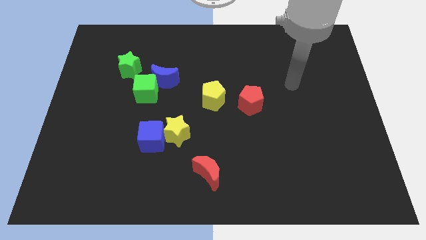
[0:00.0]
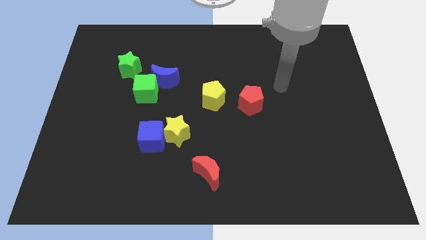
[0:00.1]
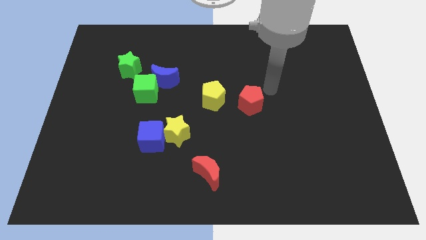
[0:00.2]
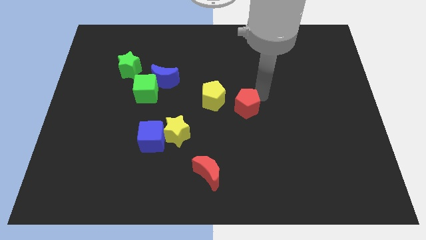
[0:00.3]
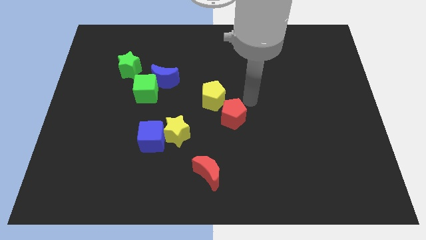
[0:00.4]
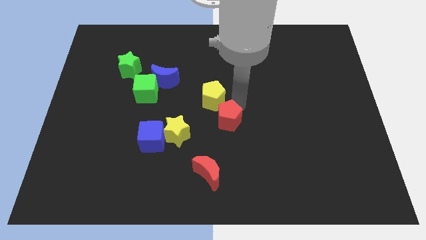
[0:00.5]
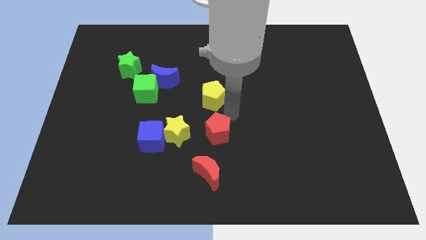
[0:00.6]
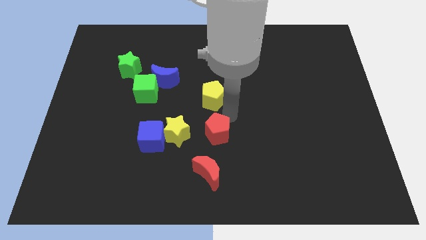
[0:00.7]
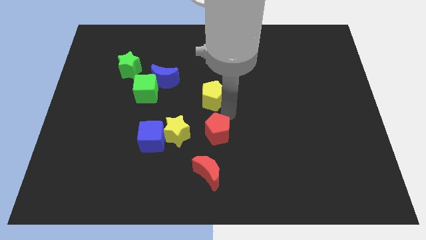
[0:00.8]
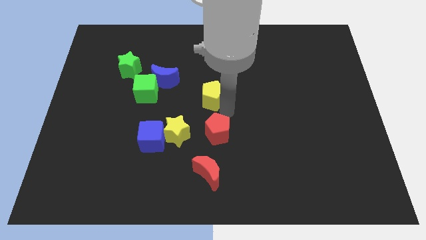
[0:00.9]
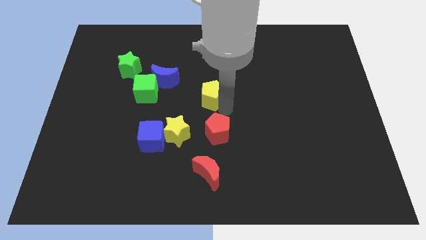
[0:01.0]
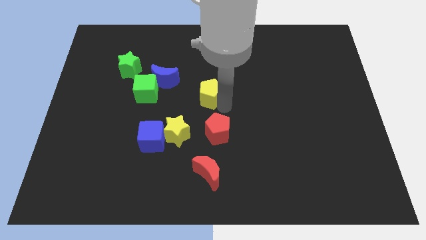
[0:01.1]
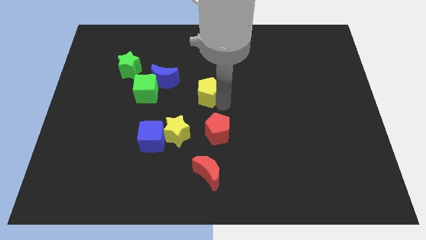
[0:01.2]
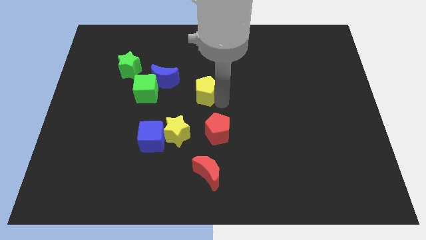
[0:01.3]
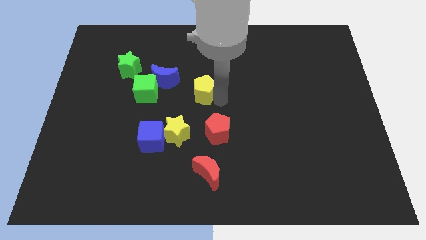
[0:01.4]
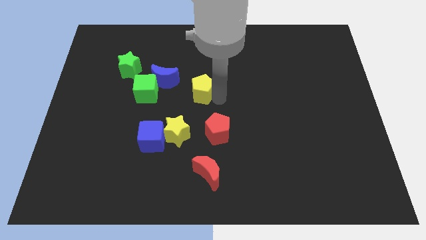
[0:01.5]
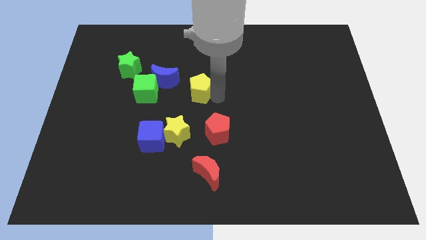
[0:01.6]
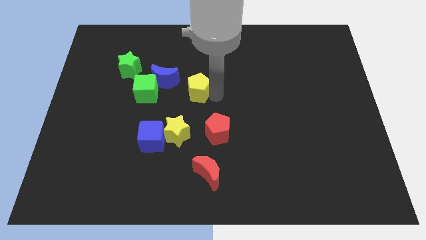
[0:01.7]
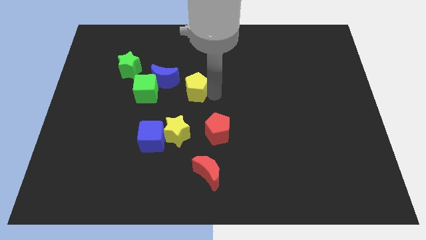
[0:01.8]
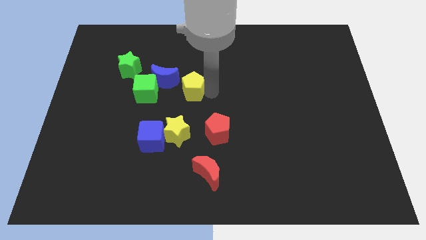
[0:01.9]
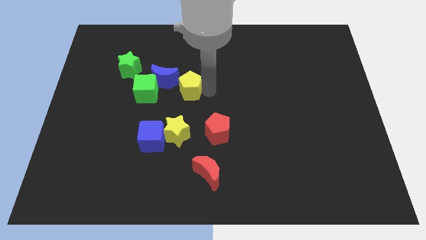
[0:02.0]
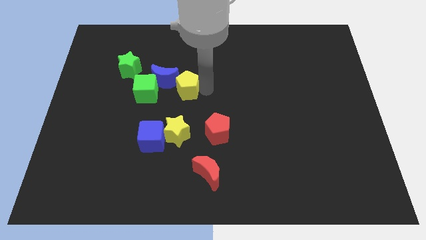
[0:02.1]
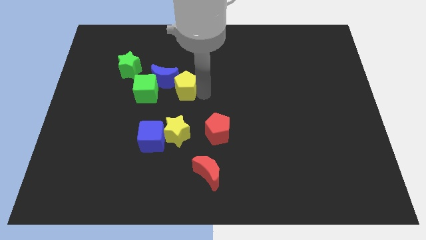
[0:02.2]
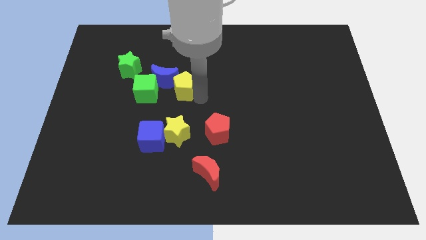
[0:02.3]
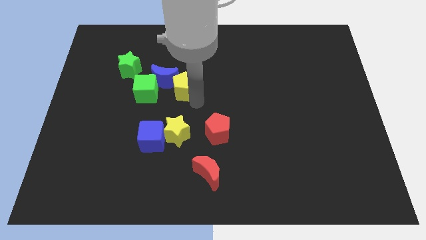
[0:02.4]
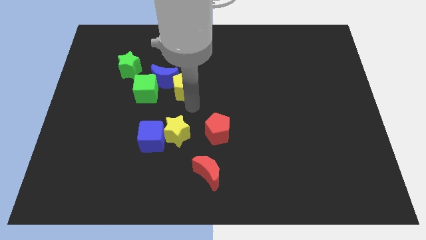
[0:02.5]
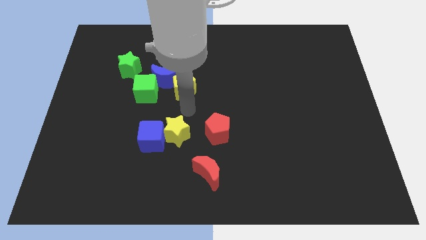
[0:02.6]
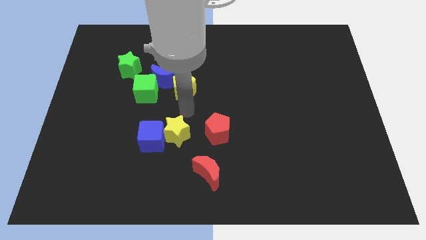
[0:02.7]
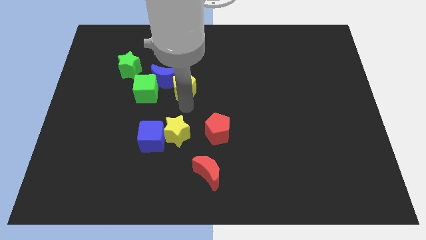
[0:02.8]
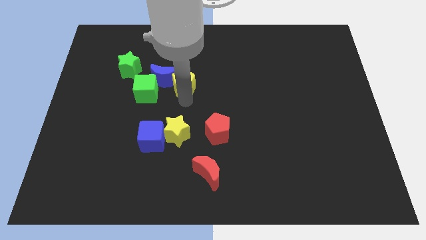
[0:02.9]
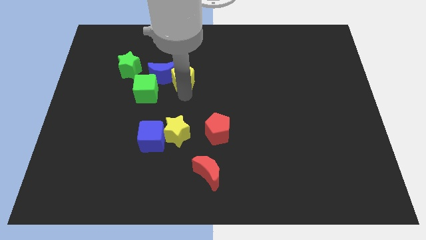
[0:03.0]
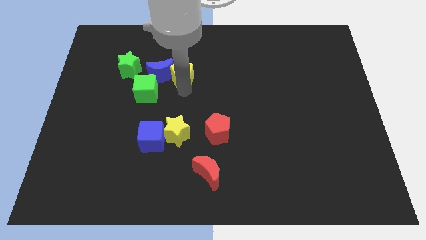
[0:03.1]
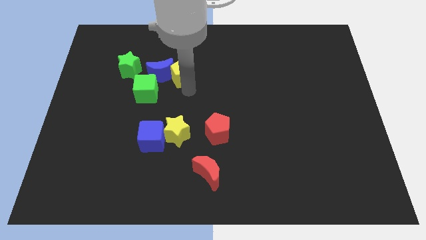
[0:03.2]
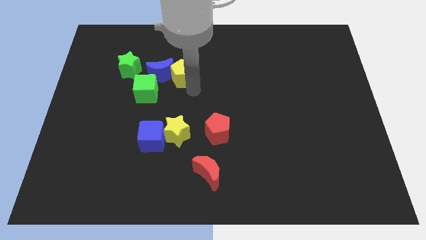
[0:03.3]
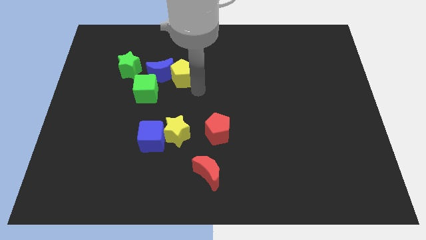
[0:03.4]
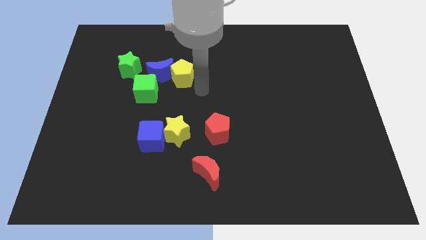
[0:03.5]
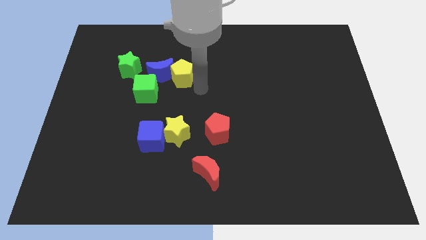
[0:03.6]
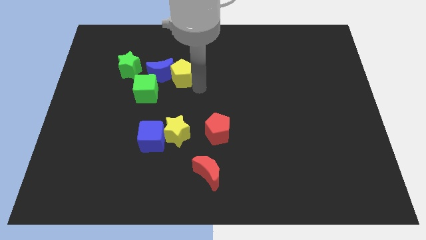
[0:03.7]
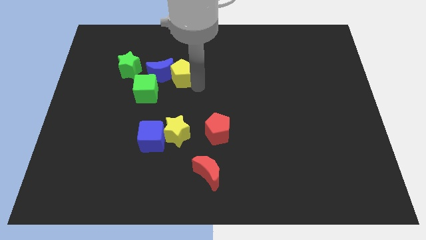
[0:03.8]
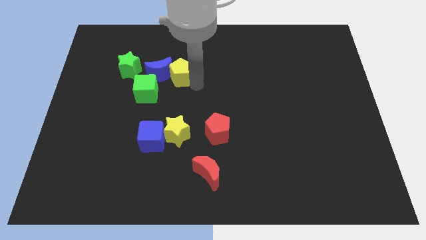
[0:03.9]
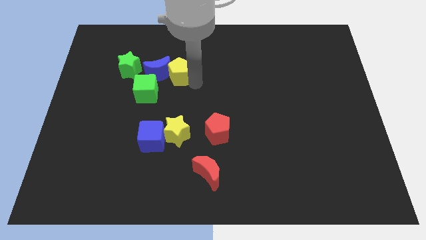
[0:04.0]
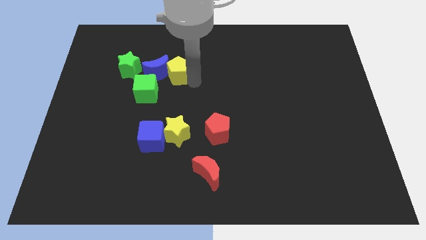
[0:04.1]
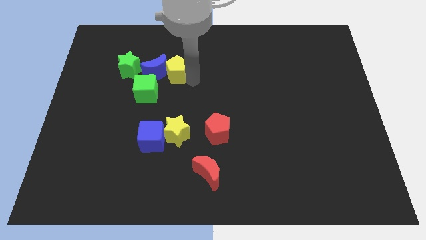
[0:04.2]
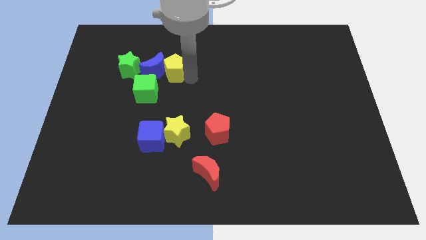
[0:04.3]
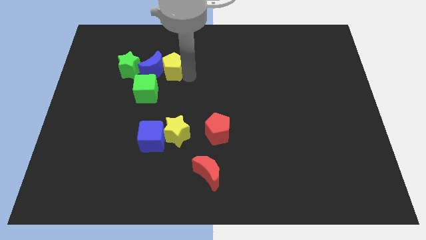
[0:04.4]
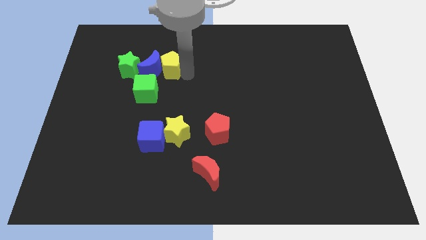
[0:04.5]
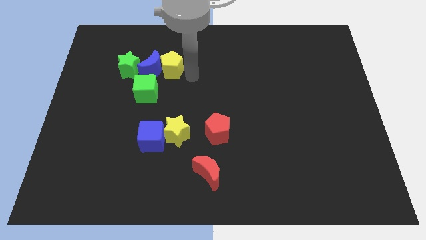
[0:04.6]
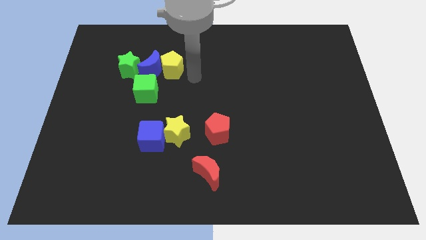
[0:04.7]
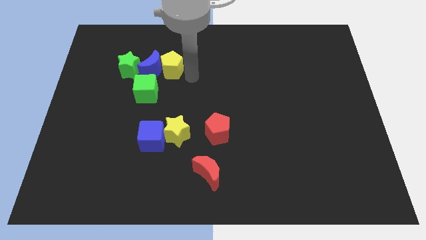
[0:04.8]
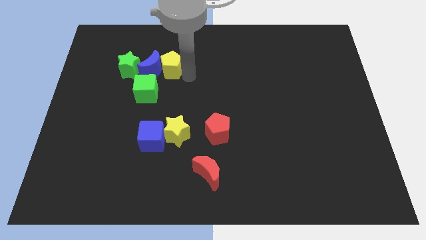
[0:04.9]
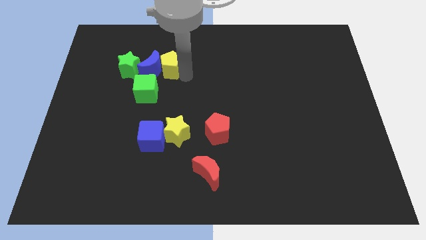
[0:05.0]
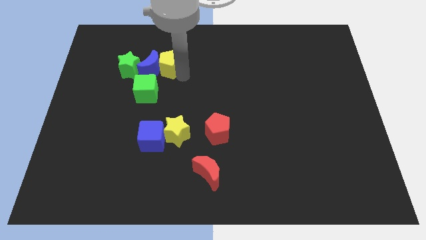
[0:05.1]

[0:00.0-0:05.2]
move the yellow pentagon above the green cube

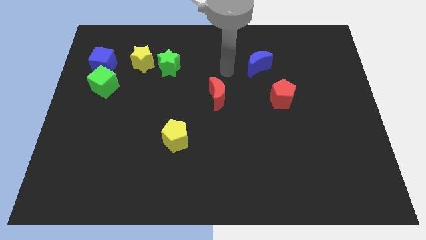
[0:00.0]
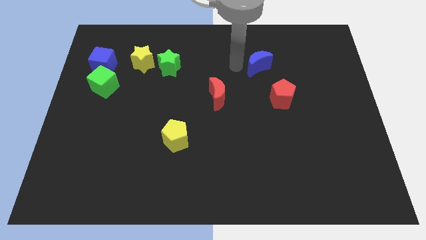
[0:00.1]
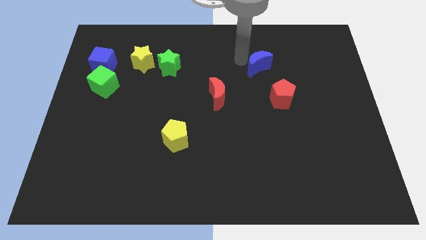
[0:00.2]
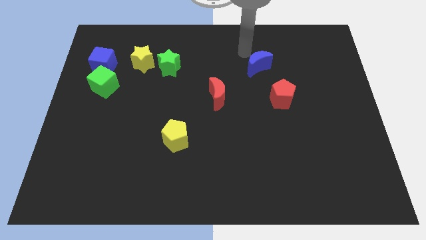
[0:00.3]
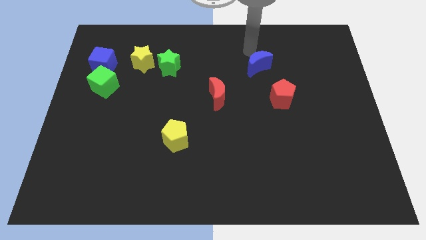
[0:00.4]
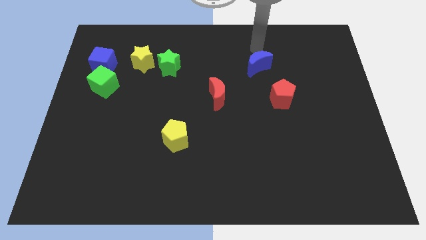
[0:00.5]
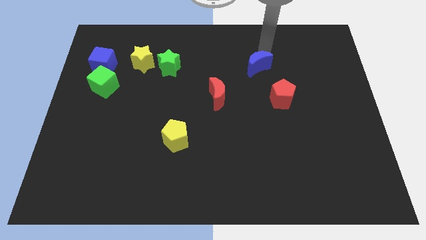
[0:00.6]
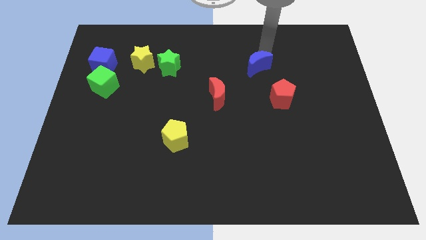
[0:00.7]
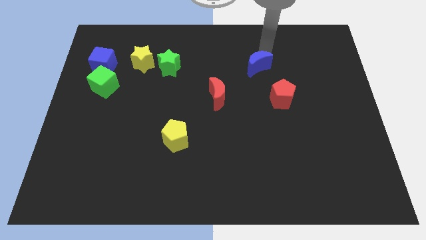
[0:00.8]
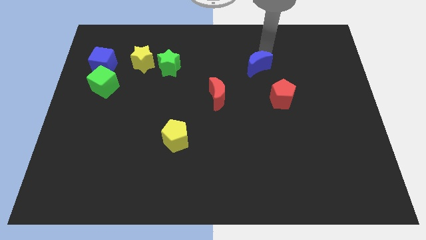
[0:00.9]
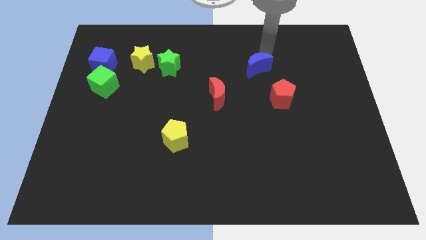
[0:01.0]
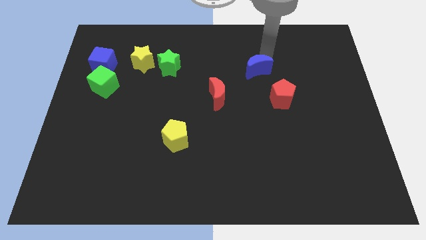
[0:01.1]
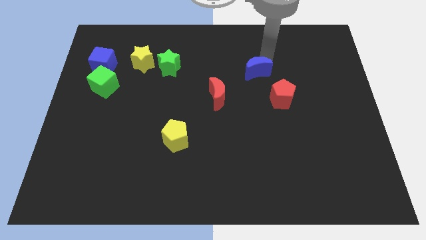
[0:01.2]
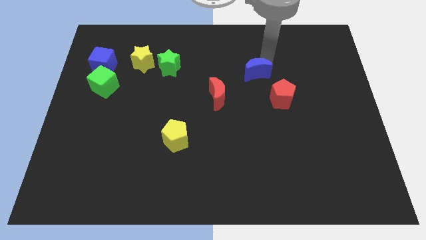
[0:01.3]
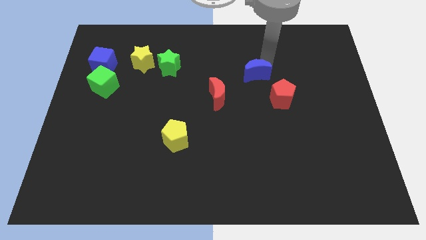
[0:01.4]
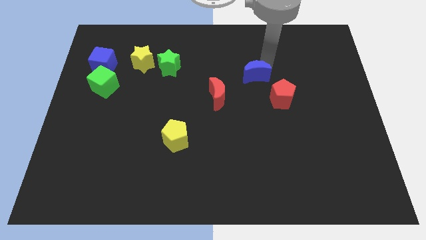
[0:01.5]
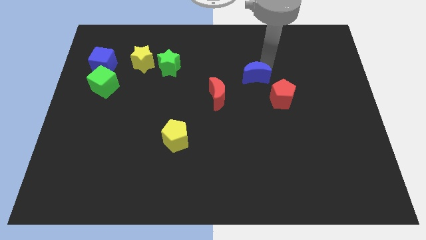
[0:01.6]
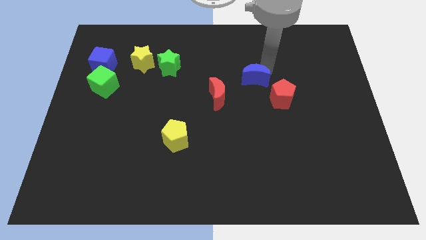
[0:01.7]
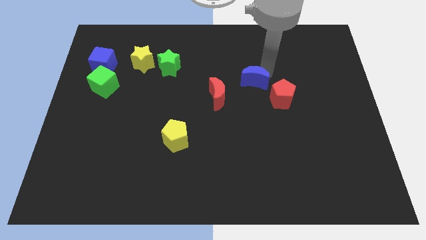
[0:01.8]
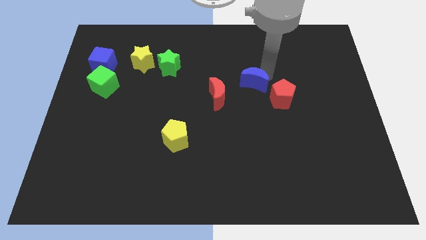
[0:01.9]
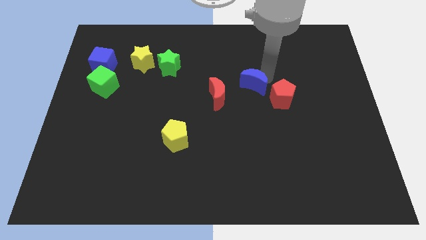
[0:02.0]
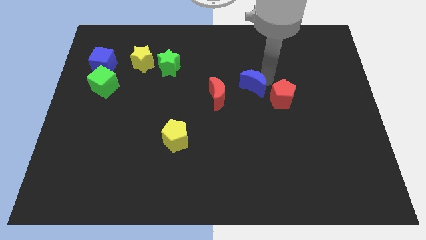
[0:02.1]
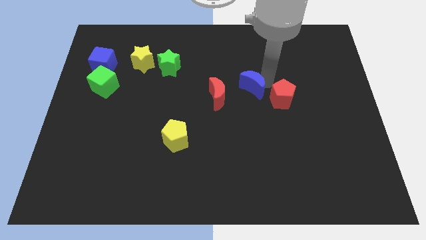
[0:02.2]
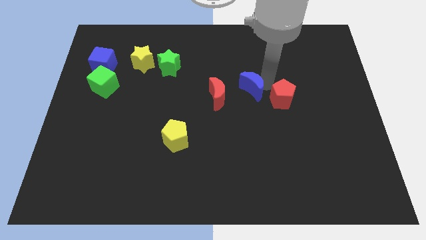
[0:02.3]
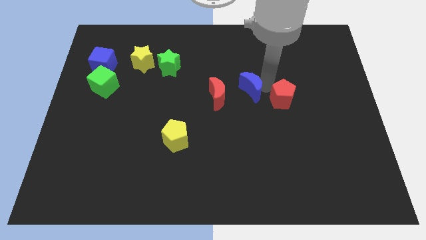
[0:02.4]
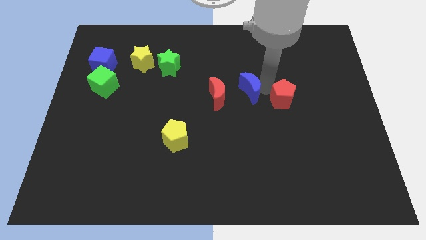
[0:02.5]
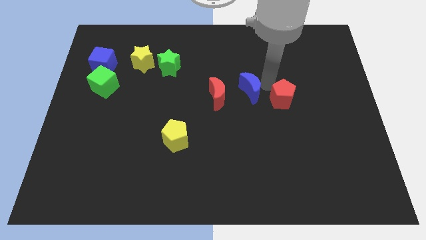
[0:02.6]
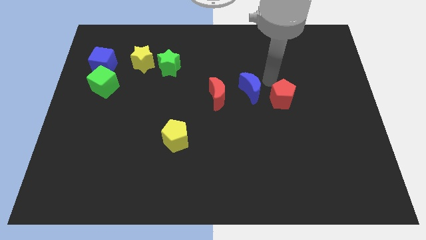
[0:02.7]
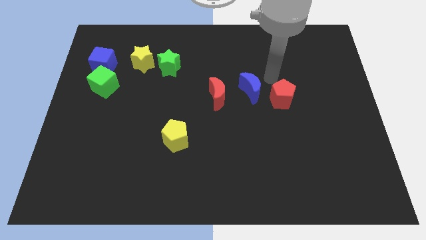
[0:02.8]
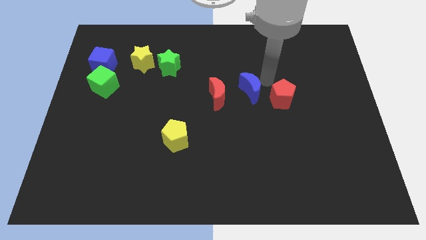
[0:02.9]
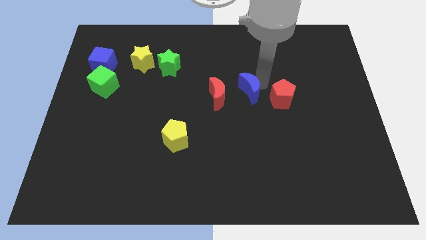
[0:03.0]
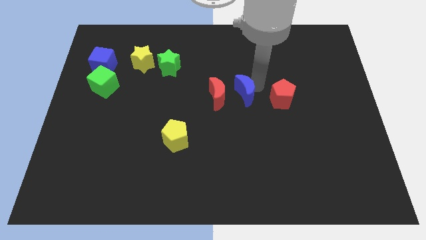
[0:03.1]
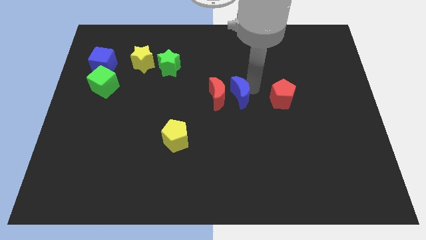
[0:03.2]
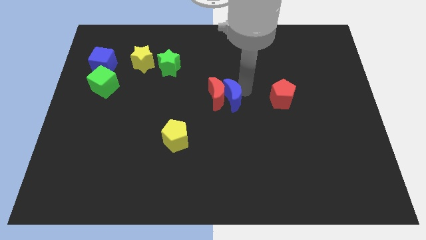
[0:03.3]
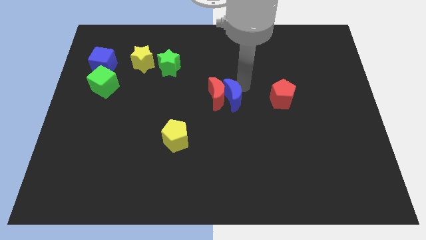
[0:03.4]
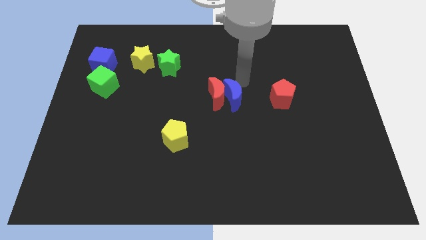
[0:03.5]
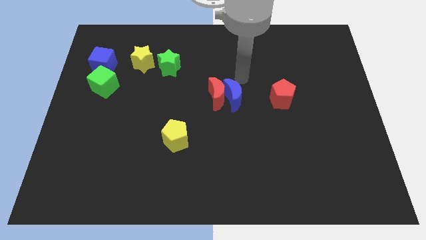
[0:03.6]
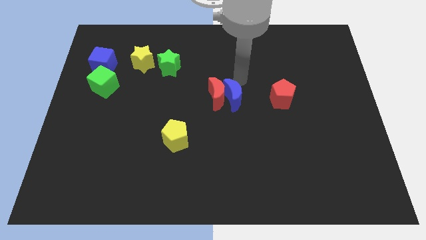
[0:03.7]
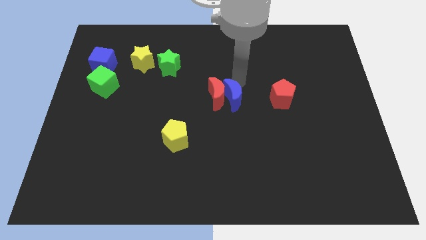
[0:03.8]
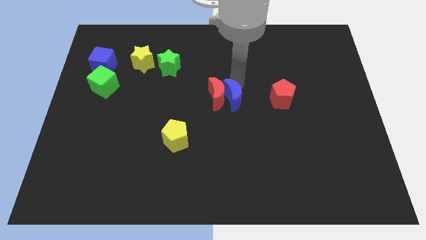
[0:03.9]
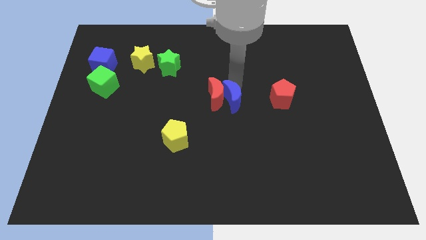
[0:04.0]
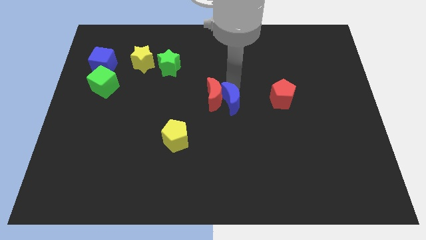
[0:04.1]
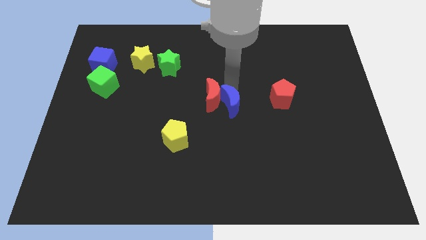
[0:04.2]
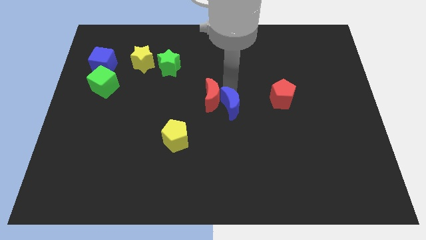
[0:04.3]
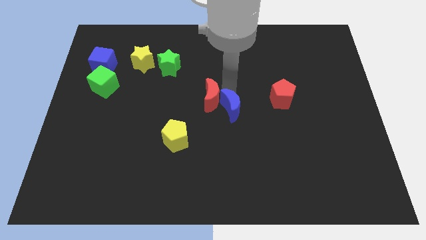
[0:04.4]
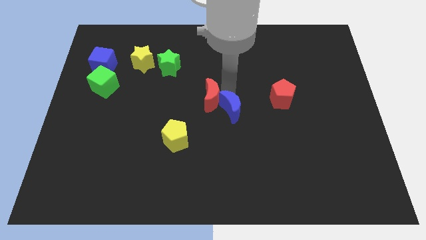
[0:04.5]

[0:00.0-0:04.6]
put the blue moon below the red moon
